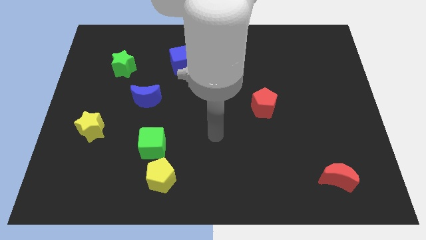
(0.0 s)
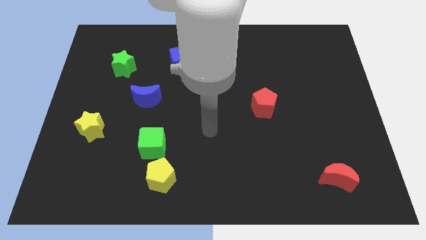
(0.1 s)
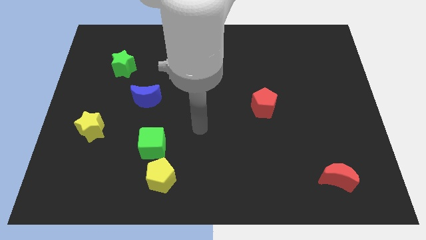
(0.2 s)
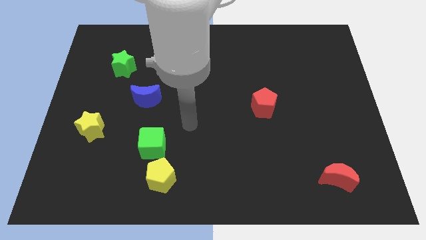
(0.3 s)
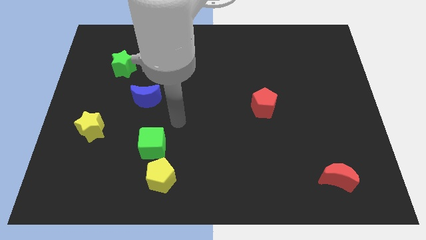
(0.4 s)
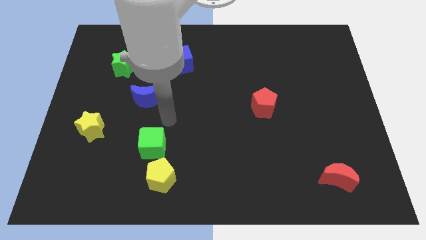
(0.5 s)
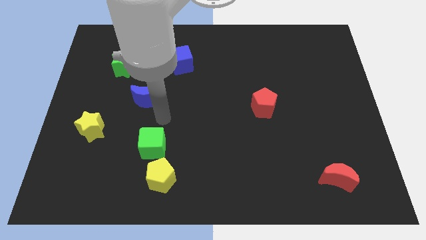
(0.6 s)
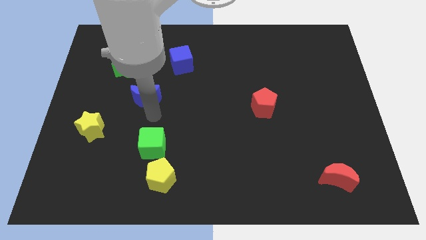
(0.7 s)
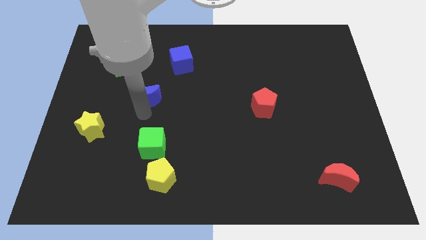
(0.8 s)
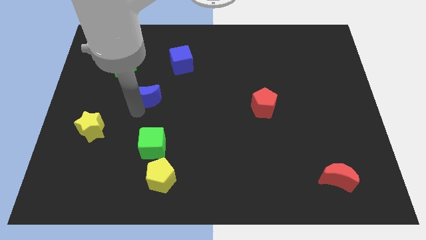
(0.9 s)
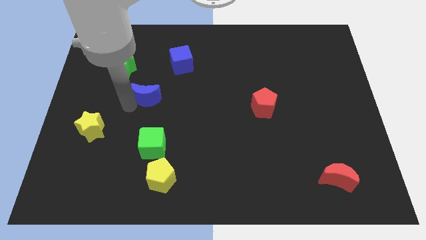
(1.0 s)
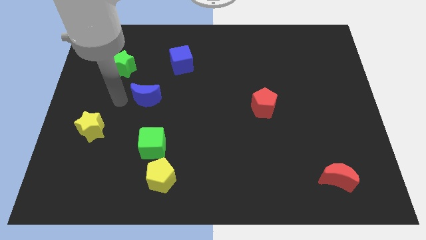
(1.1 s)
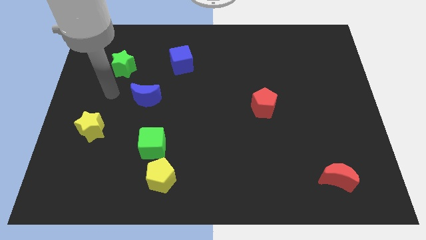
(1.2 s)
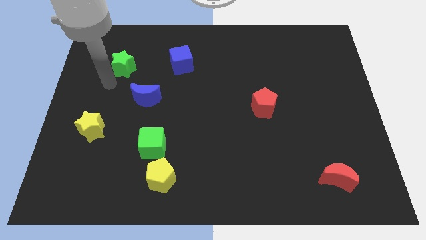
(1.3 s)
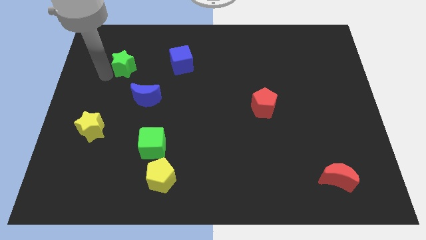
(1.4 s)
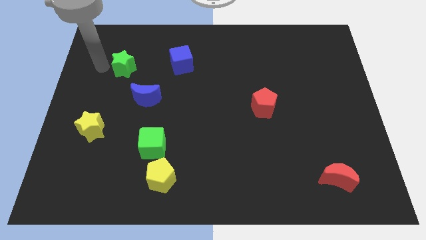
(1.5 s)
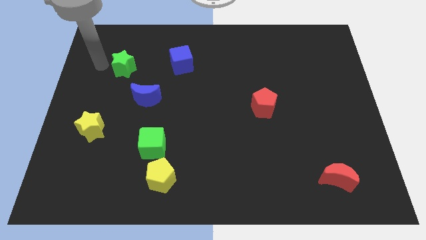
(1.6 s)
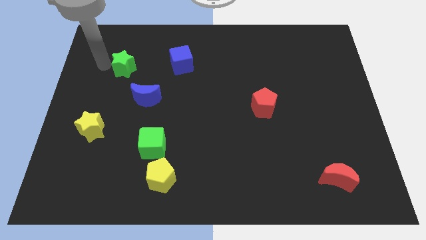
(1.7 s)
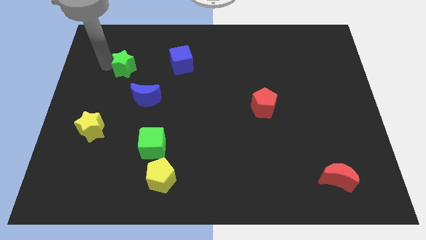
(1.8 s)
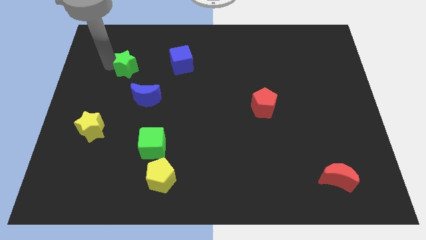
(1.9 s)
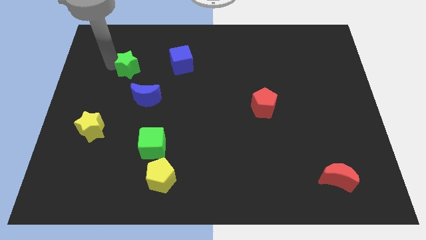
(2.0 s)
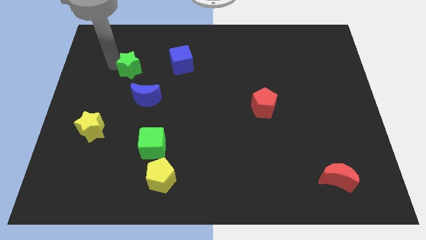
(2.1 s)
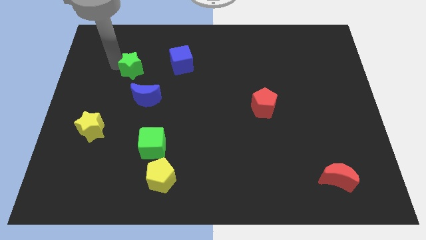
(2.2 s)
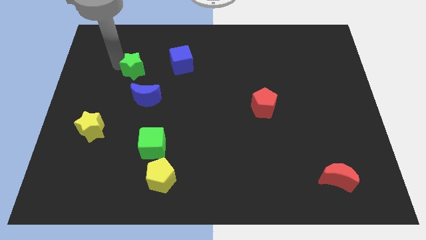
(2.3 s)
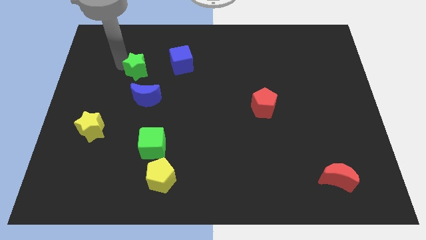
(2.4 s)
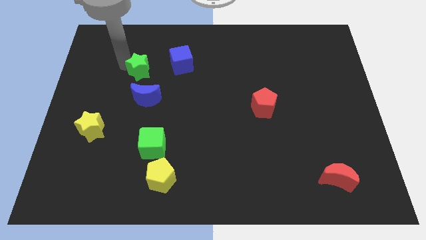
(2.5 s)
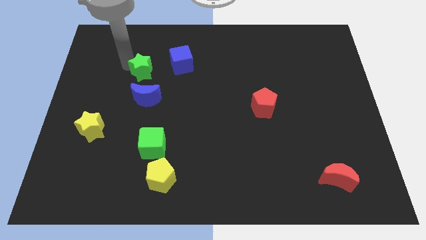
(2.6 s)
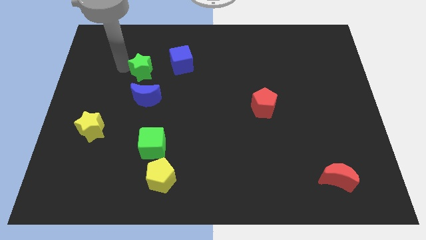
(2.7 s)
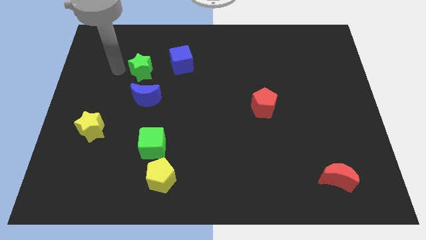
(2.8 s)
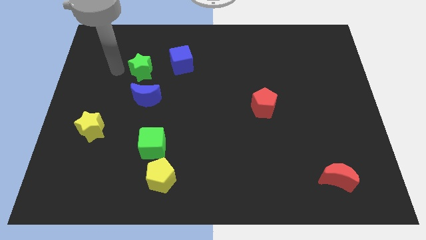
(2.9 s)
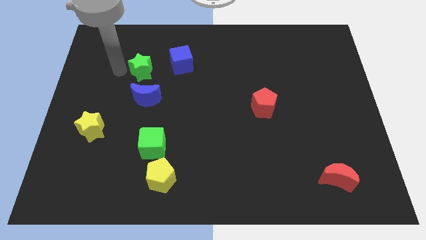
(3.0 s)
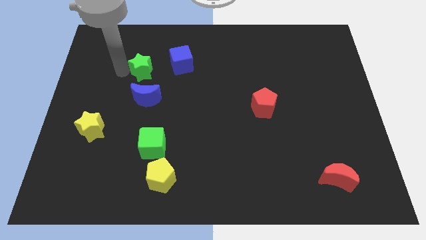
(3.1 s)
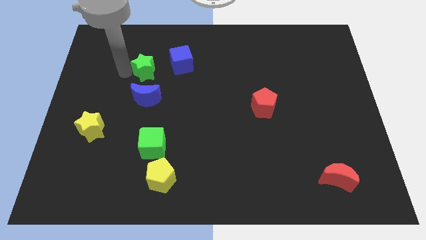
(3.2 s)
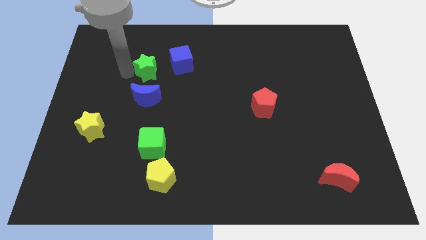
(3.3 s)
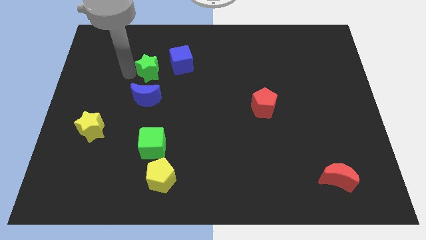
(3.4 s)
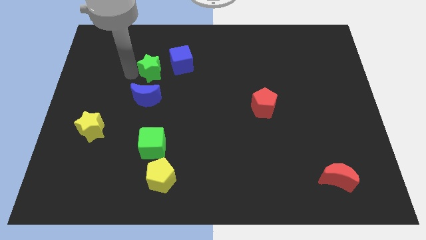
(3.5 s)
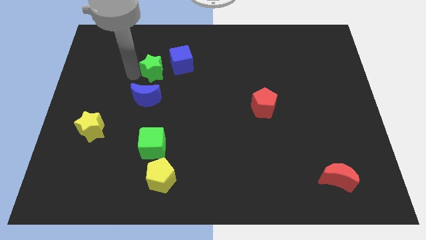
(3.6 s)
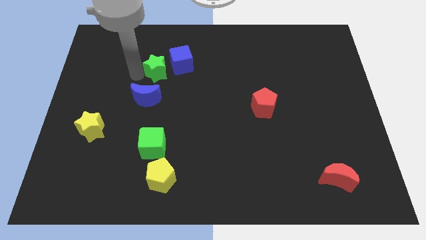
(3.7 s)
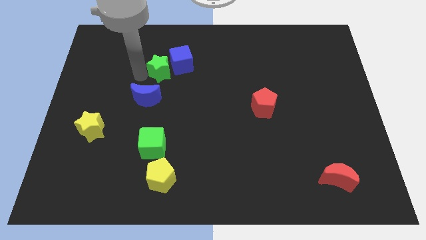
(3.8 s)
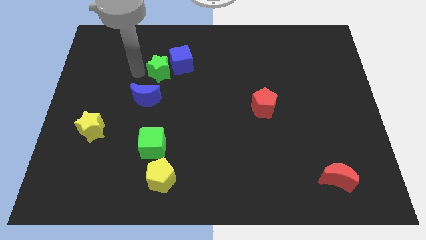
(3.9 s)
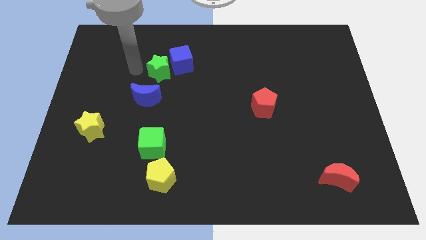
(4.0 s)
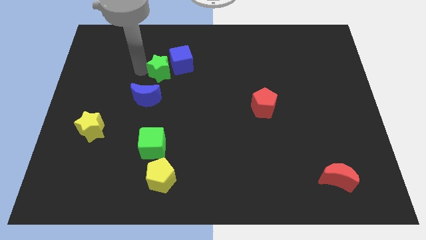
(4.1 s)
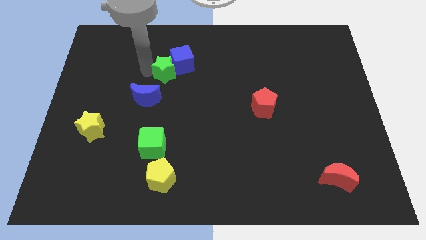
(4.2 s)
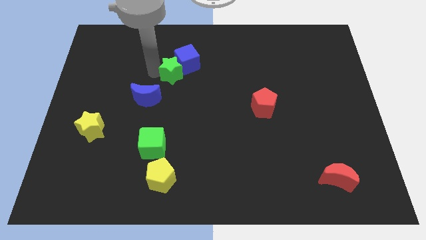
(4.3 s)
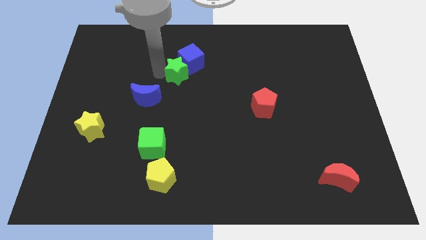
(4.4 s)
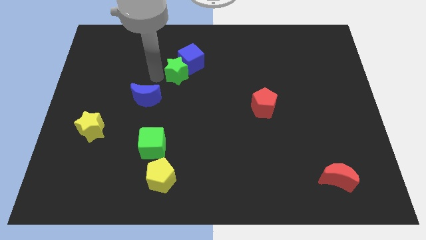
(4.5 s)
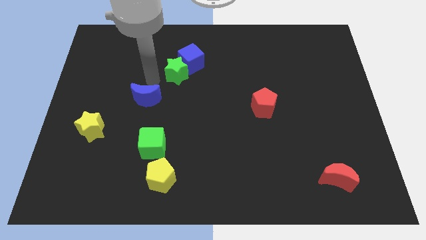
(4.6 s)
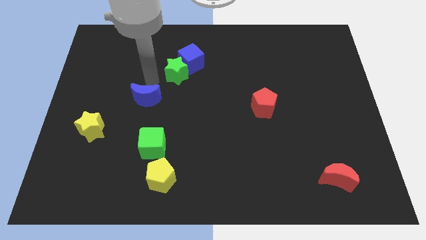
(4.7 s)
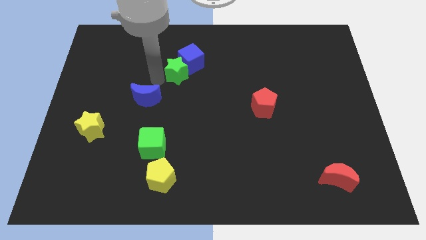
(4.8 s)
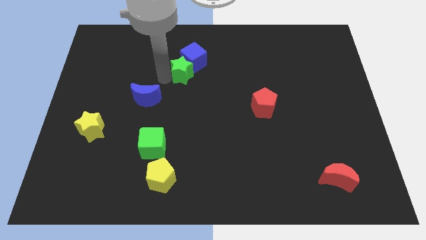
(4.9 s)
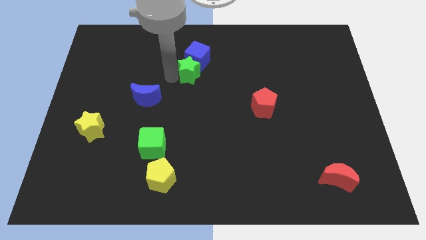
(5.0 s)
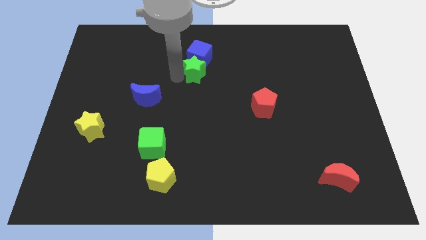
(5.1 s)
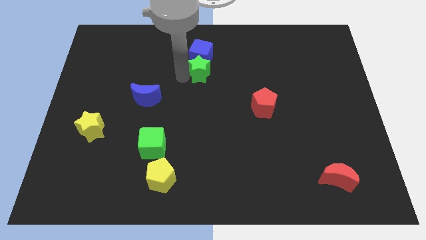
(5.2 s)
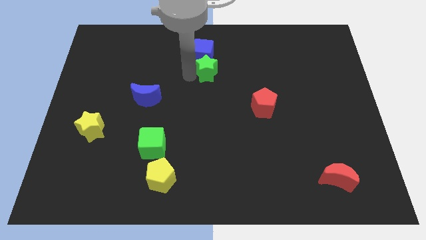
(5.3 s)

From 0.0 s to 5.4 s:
move the green star to the right

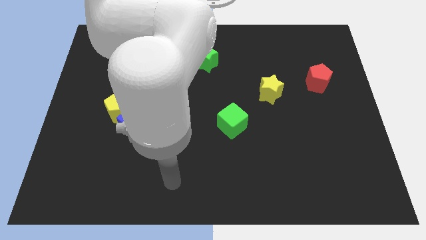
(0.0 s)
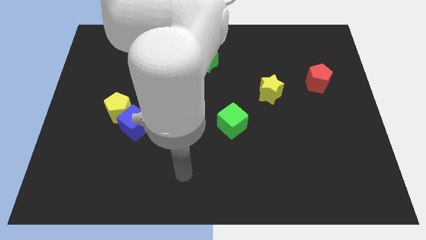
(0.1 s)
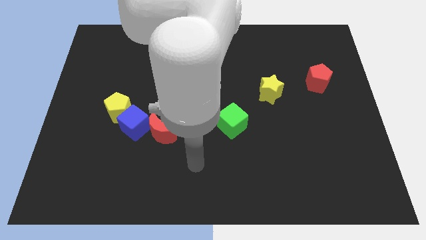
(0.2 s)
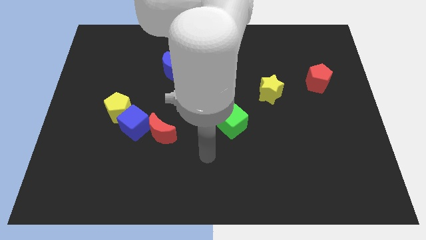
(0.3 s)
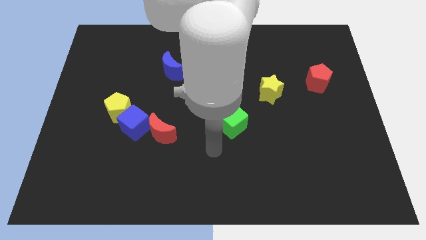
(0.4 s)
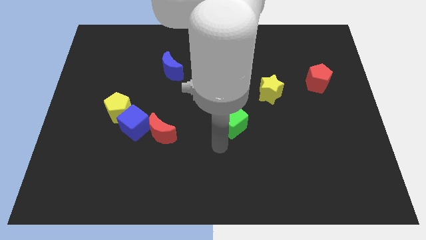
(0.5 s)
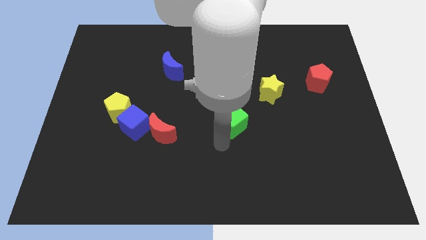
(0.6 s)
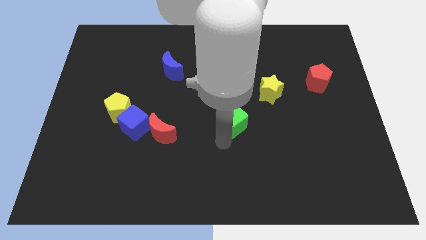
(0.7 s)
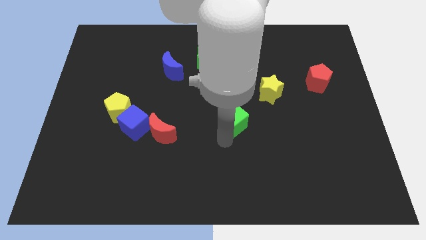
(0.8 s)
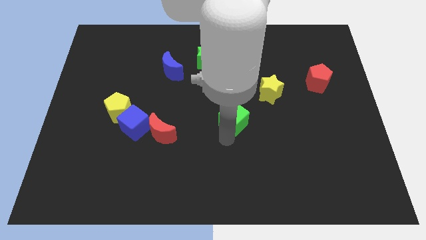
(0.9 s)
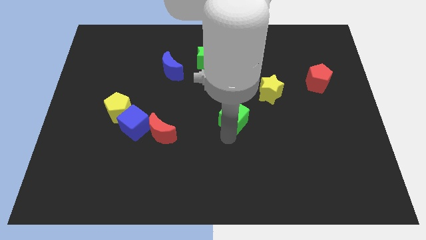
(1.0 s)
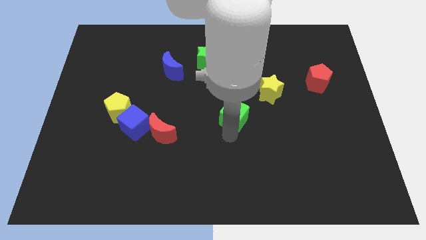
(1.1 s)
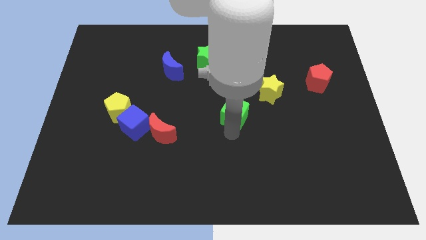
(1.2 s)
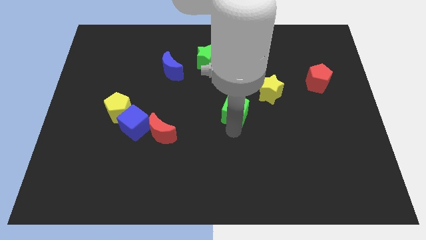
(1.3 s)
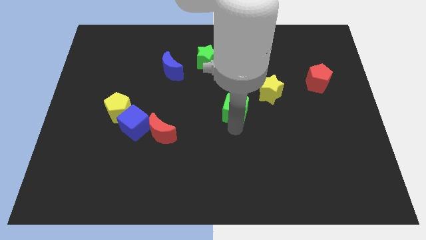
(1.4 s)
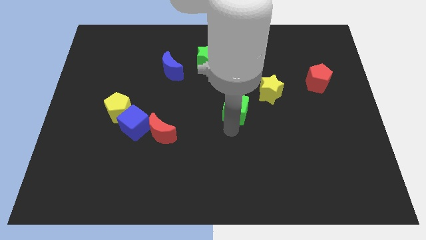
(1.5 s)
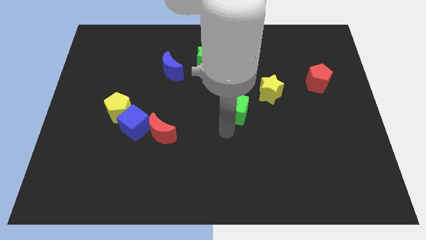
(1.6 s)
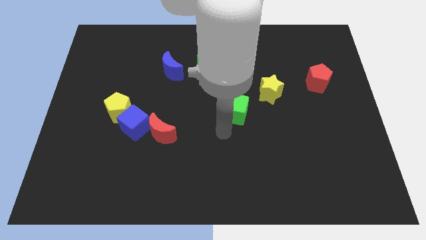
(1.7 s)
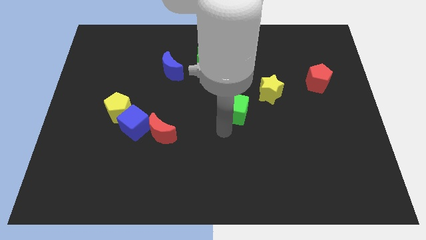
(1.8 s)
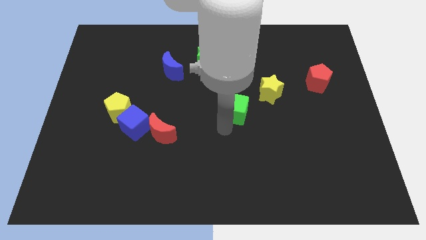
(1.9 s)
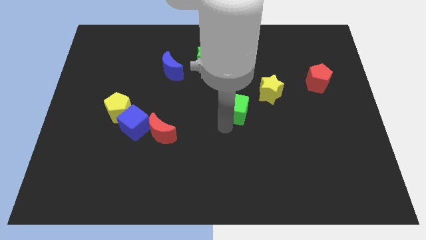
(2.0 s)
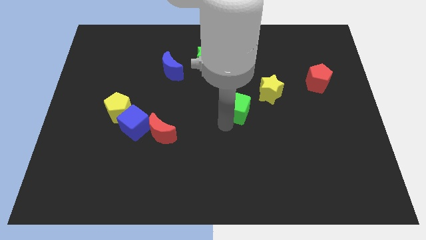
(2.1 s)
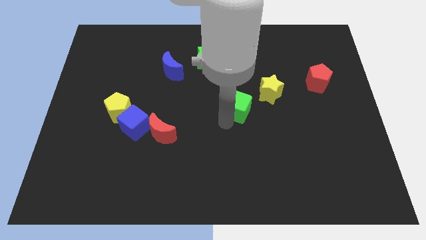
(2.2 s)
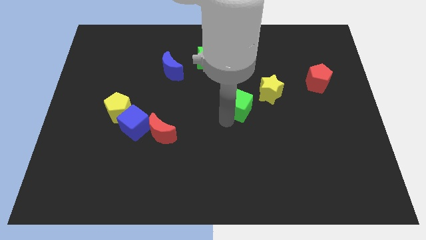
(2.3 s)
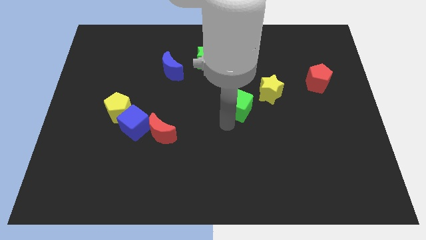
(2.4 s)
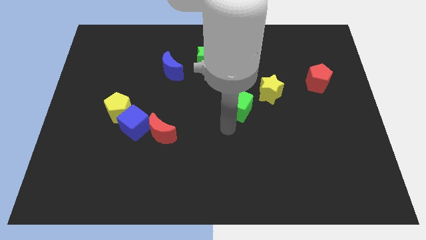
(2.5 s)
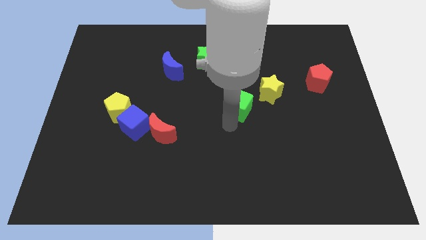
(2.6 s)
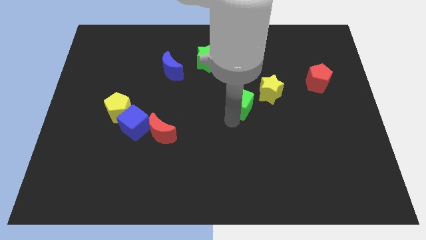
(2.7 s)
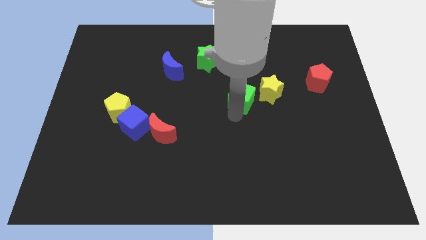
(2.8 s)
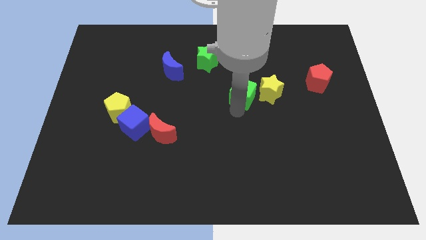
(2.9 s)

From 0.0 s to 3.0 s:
push the green cube diagonally up and to the right slightly
